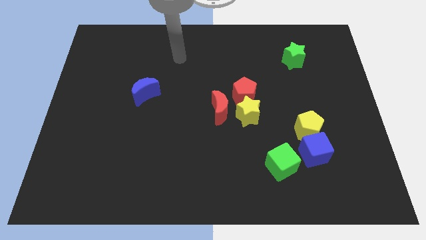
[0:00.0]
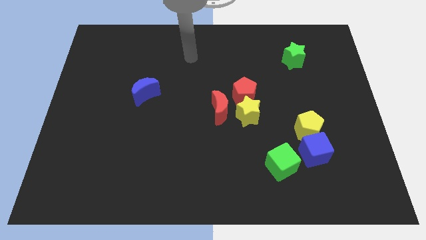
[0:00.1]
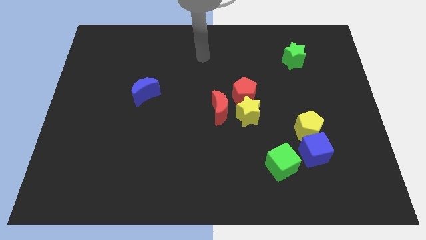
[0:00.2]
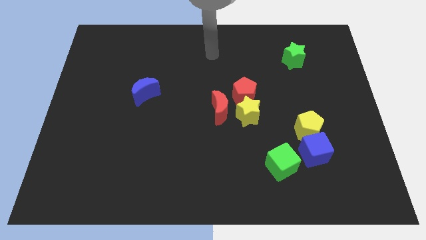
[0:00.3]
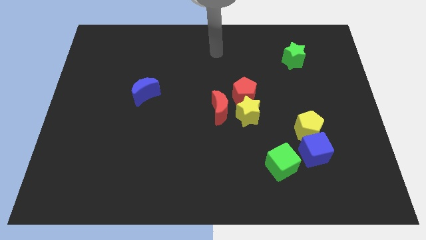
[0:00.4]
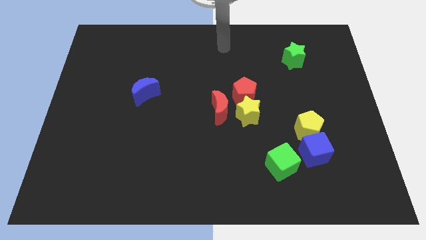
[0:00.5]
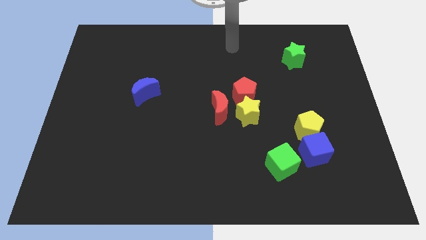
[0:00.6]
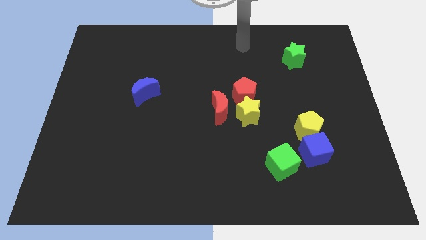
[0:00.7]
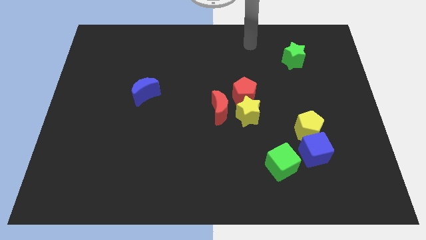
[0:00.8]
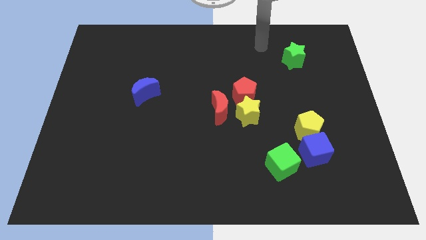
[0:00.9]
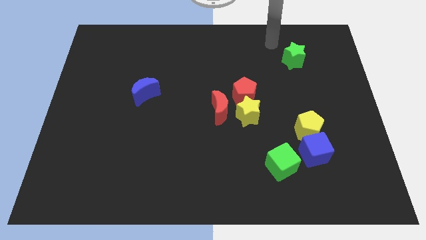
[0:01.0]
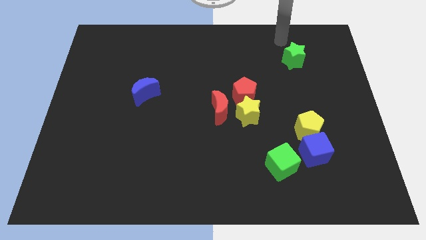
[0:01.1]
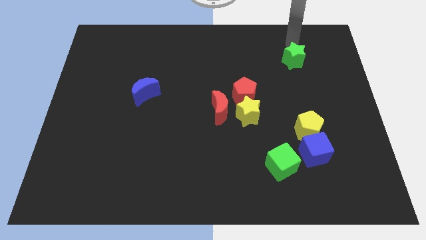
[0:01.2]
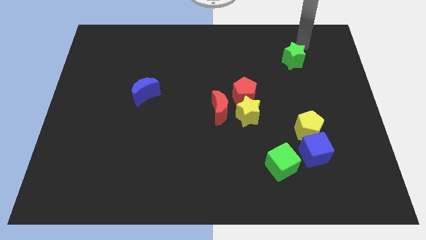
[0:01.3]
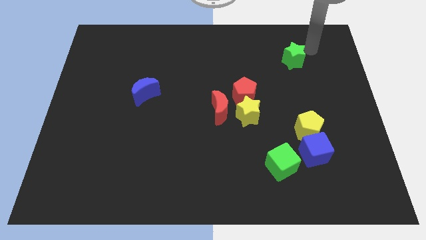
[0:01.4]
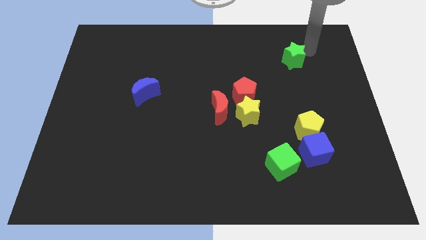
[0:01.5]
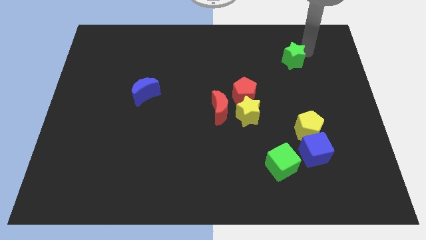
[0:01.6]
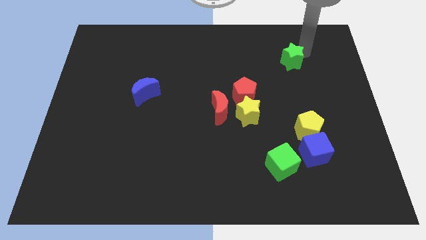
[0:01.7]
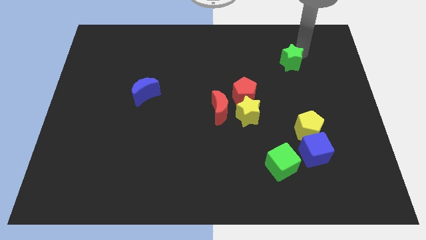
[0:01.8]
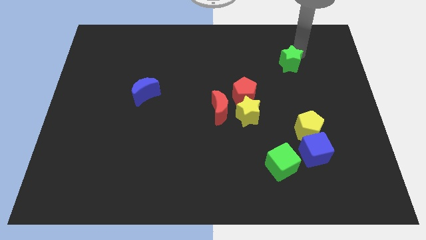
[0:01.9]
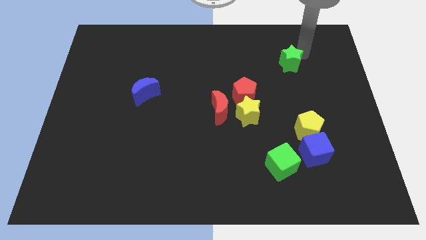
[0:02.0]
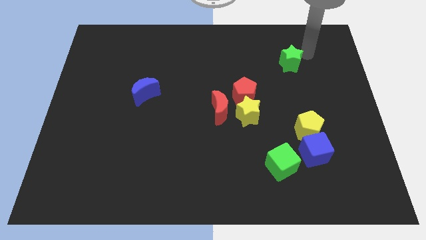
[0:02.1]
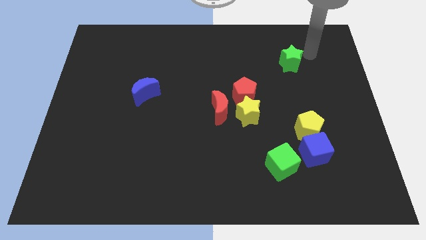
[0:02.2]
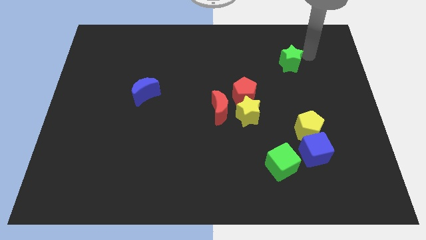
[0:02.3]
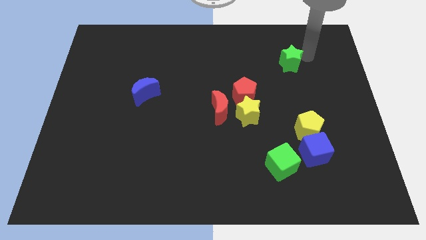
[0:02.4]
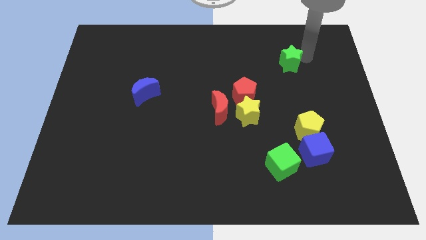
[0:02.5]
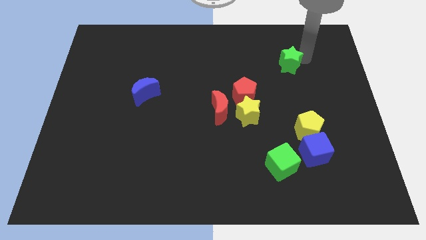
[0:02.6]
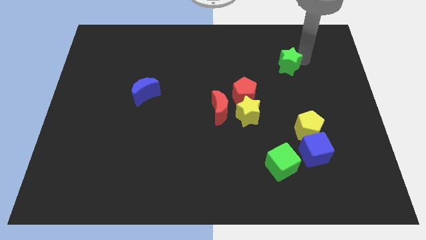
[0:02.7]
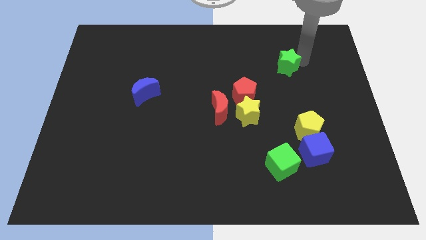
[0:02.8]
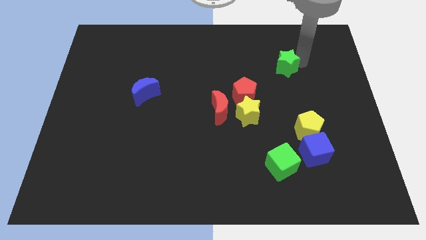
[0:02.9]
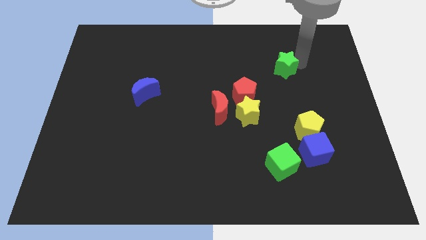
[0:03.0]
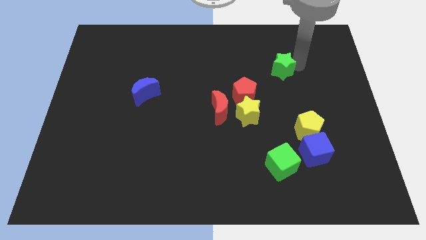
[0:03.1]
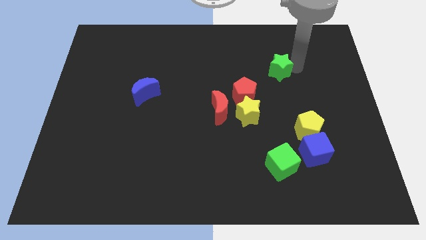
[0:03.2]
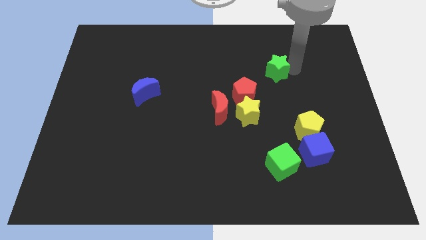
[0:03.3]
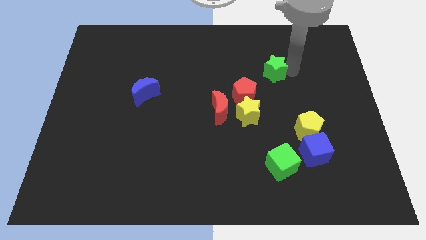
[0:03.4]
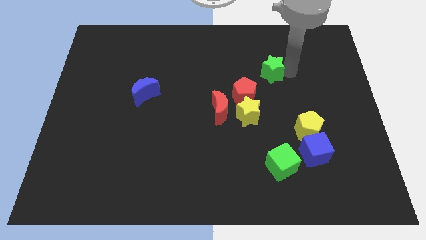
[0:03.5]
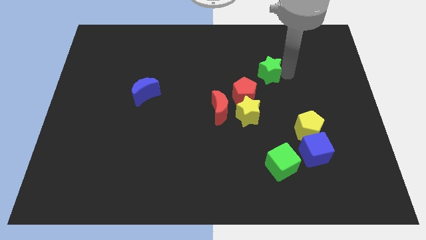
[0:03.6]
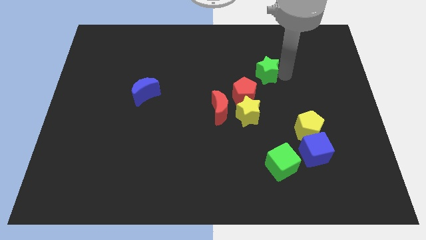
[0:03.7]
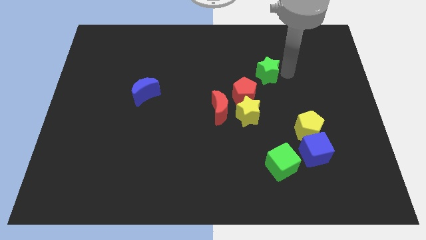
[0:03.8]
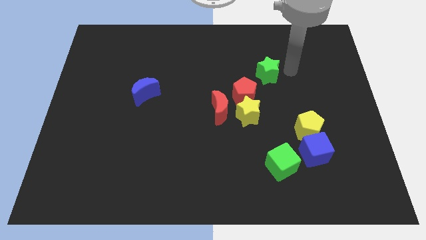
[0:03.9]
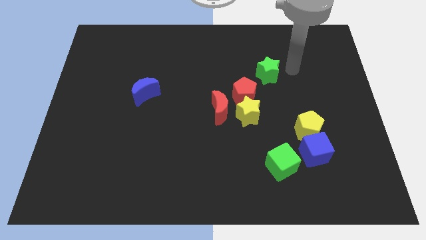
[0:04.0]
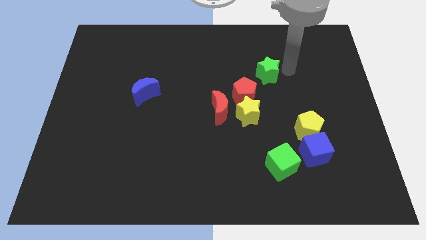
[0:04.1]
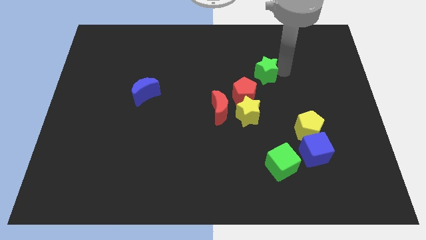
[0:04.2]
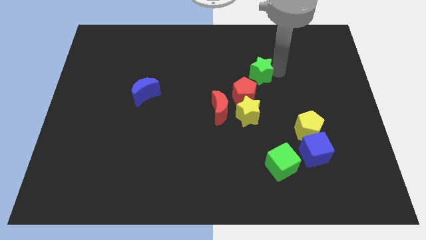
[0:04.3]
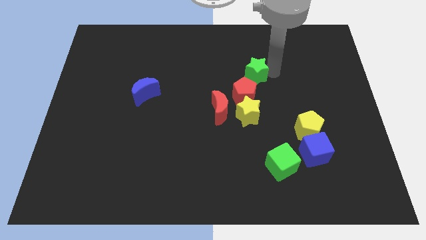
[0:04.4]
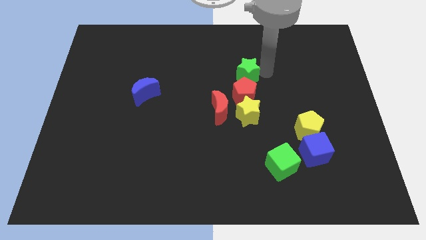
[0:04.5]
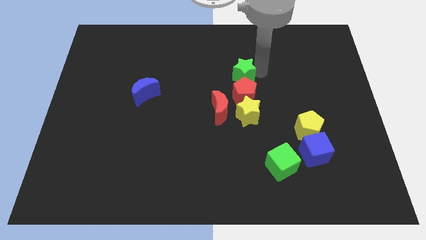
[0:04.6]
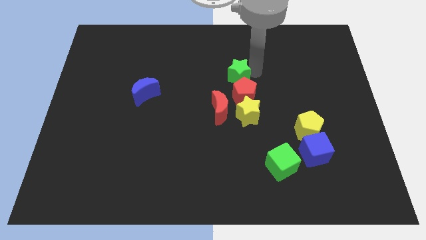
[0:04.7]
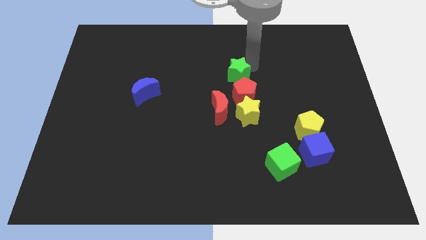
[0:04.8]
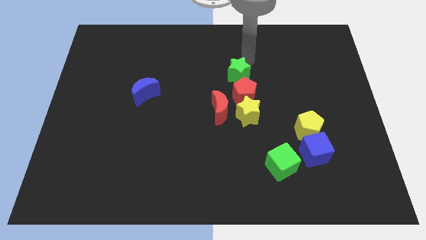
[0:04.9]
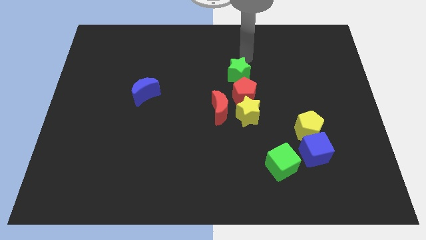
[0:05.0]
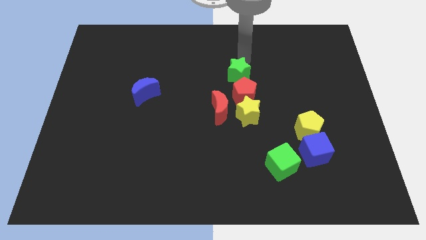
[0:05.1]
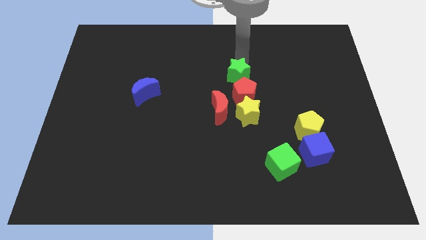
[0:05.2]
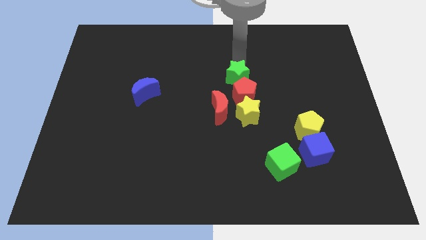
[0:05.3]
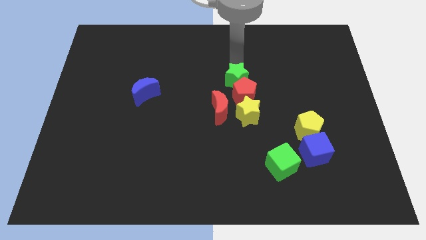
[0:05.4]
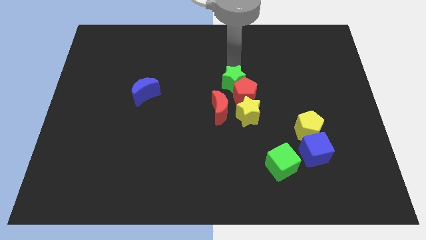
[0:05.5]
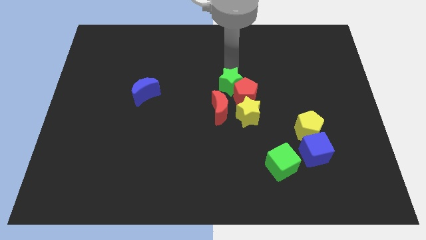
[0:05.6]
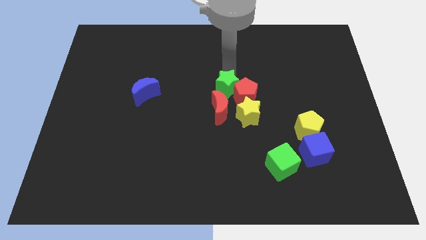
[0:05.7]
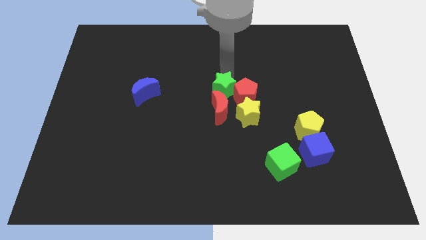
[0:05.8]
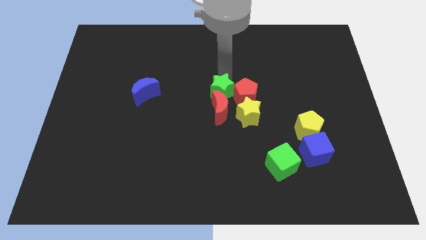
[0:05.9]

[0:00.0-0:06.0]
slide the green star towards the red moon

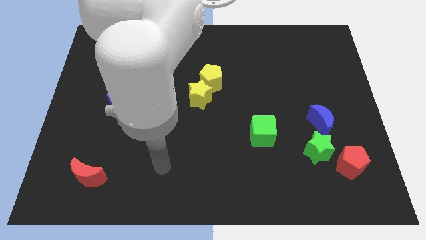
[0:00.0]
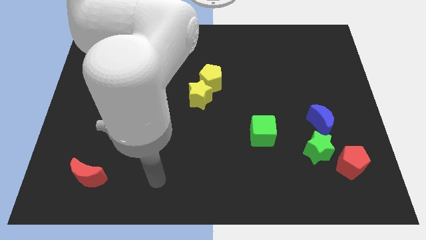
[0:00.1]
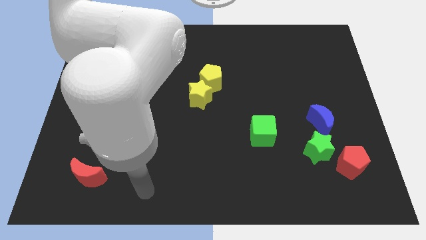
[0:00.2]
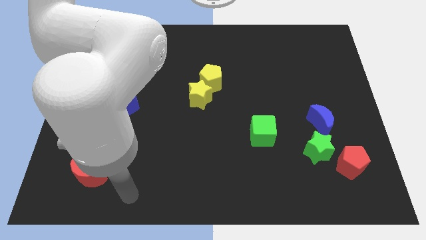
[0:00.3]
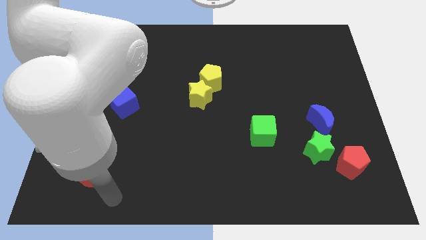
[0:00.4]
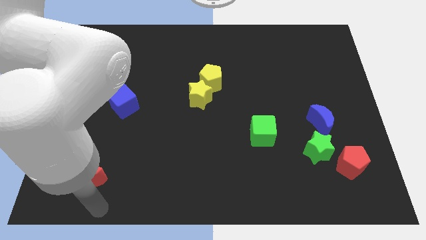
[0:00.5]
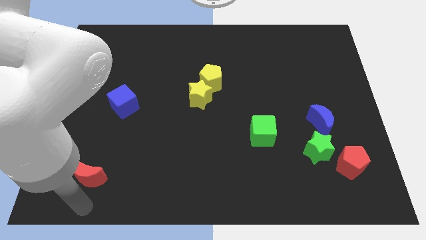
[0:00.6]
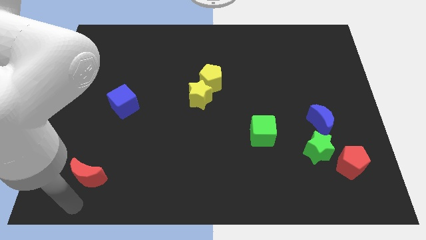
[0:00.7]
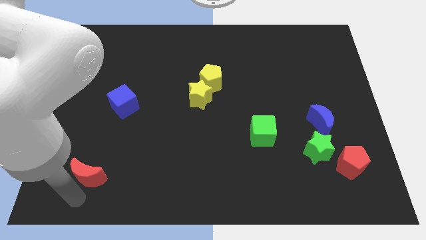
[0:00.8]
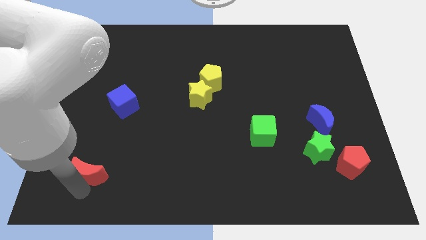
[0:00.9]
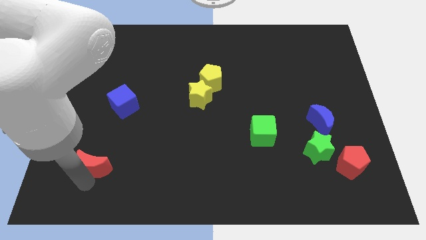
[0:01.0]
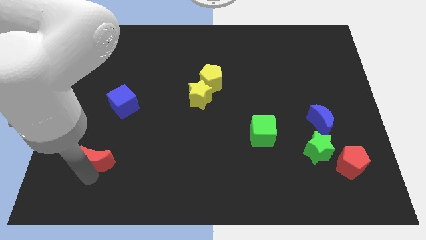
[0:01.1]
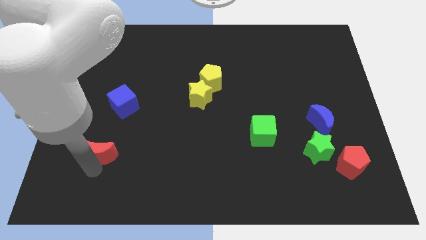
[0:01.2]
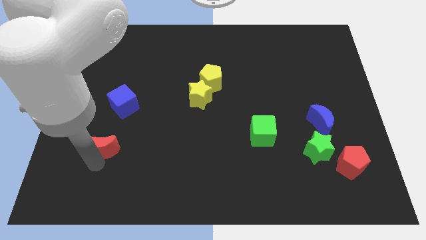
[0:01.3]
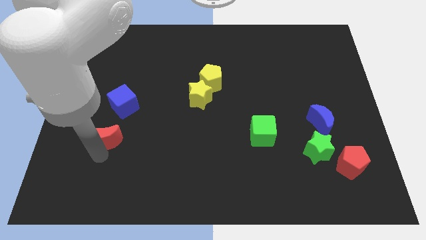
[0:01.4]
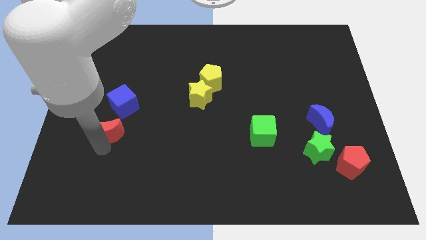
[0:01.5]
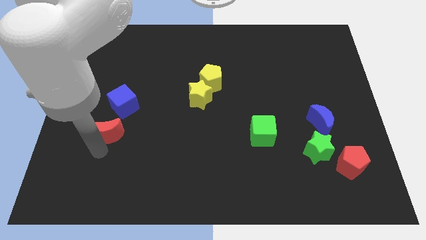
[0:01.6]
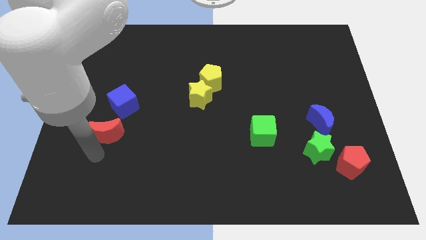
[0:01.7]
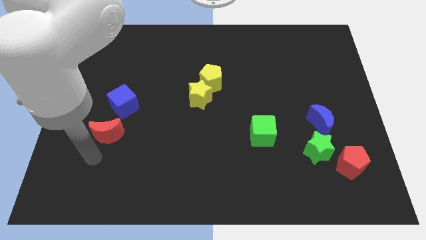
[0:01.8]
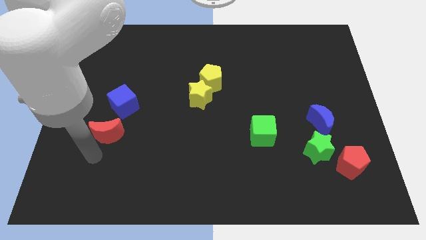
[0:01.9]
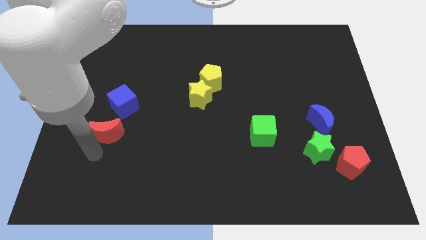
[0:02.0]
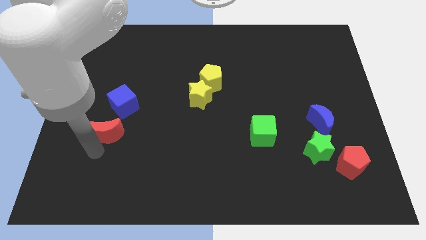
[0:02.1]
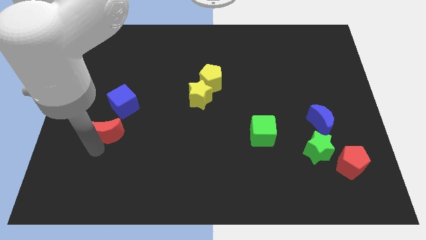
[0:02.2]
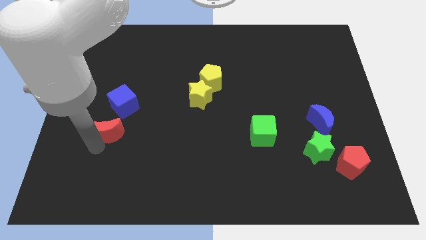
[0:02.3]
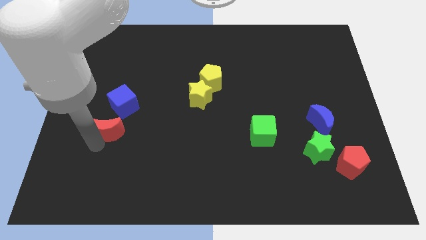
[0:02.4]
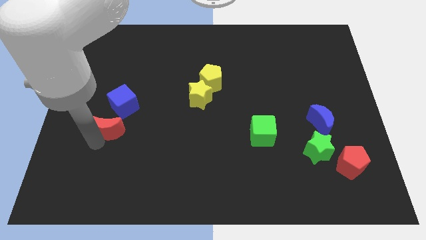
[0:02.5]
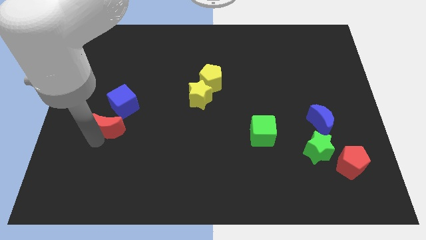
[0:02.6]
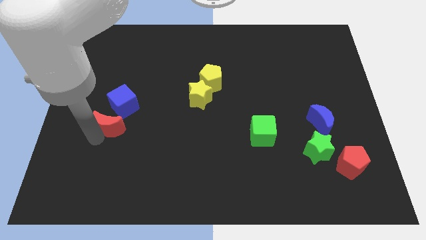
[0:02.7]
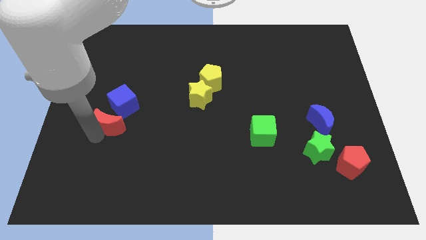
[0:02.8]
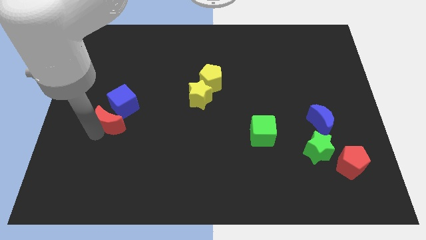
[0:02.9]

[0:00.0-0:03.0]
move the red moon next to the blue cube
